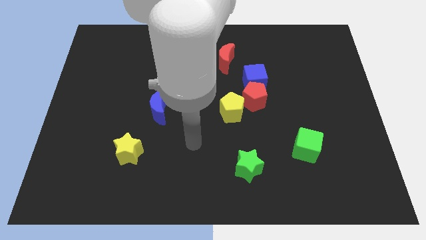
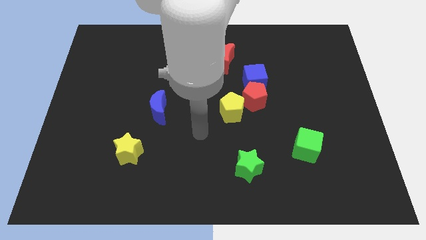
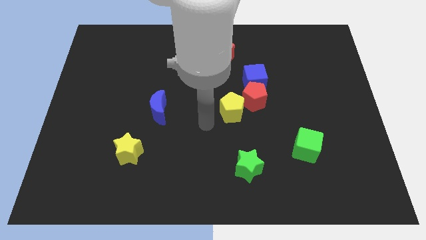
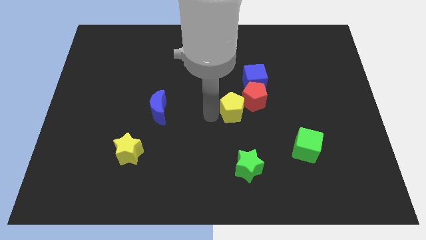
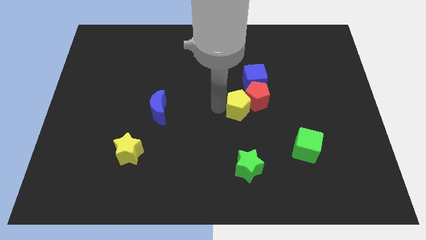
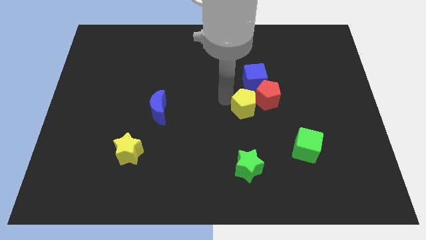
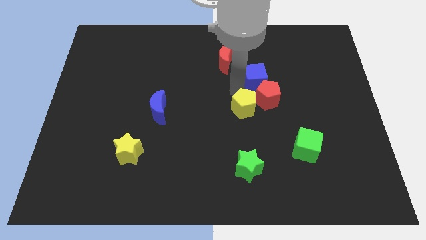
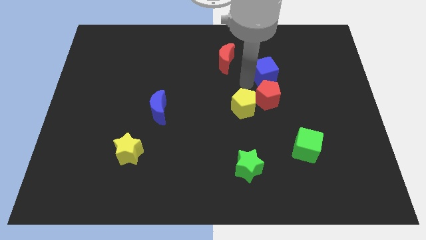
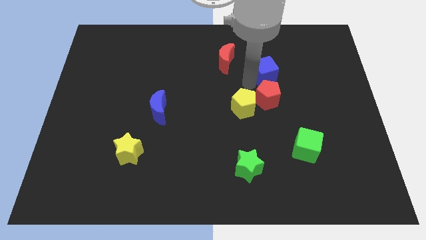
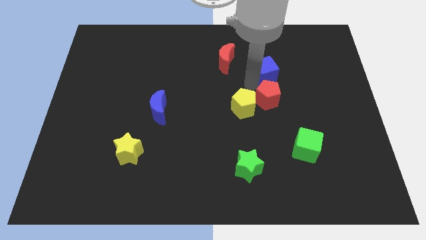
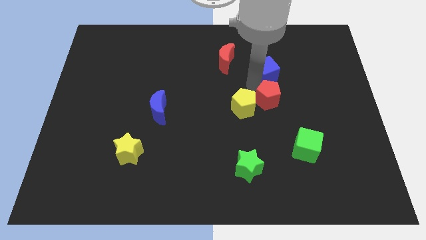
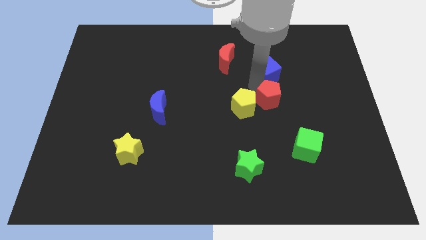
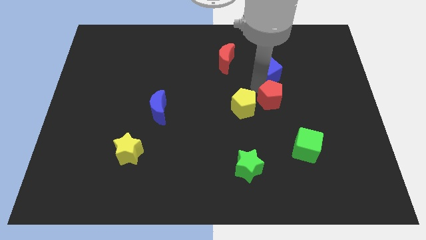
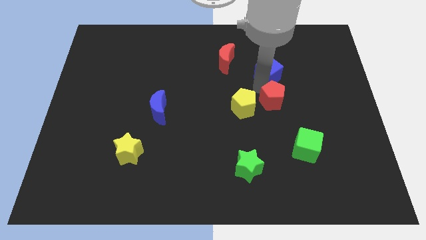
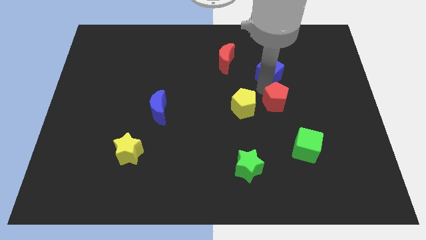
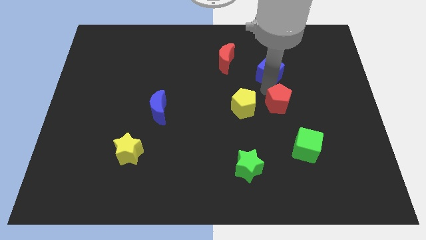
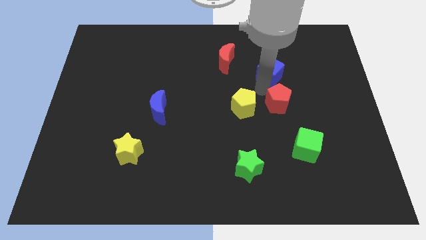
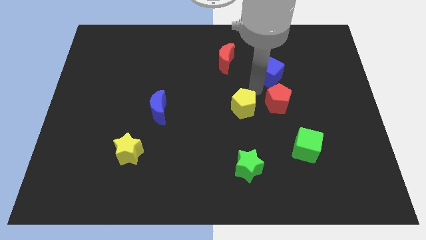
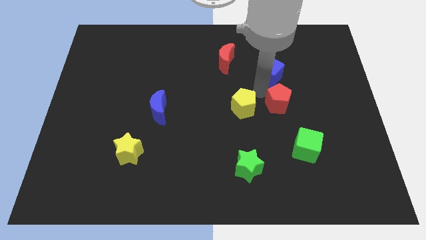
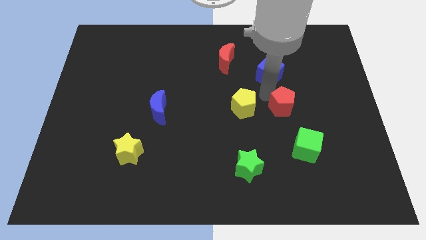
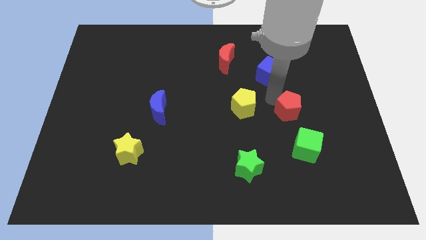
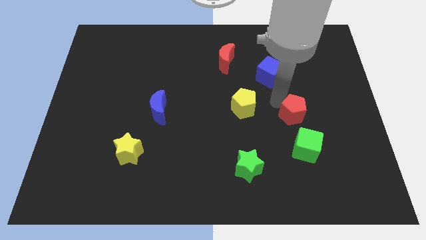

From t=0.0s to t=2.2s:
move the red pentagon away from the blue cube and yellow pentagon

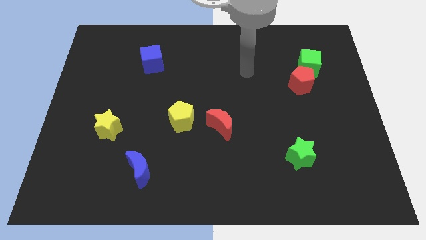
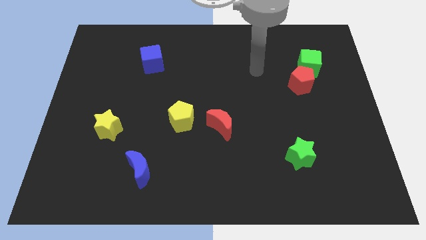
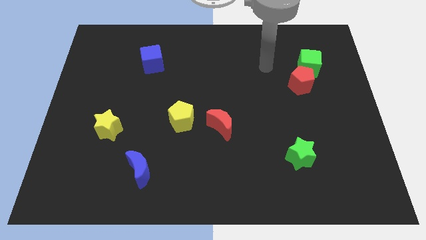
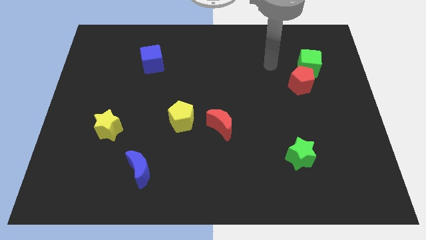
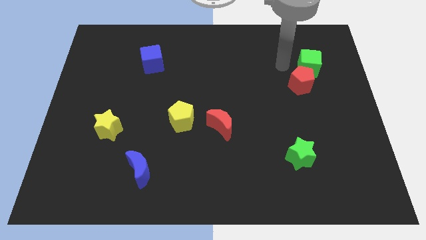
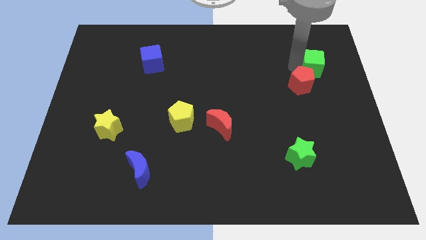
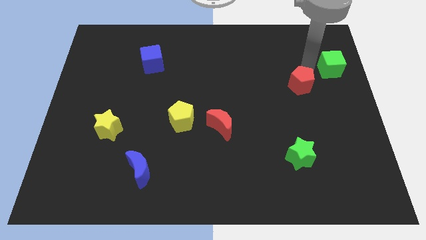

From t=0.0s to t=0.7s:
separate the red pentagon from the green cube

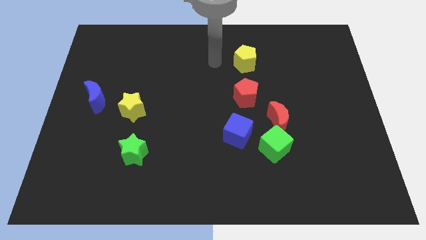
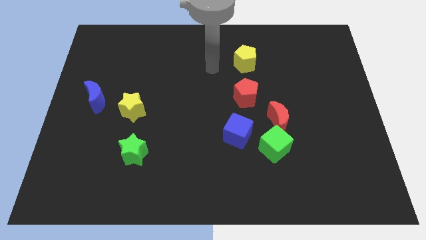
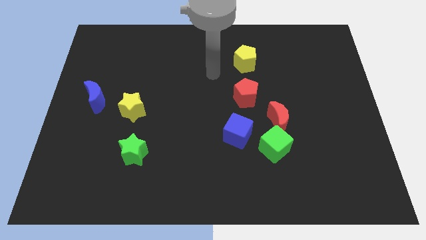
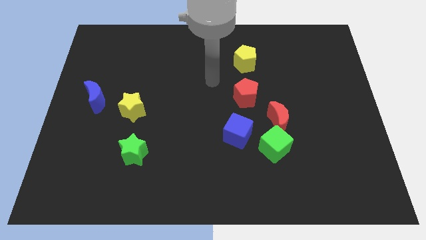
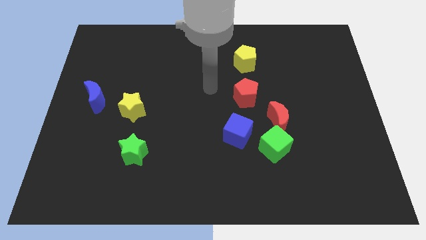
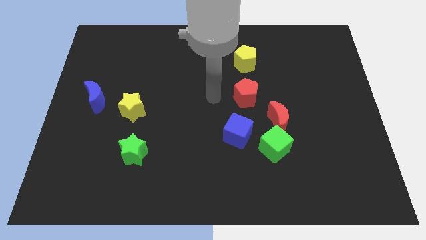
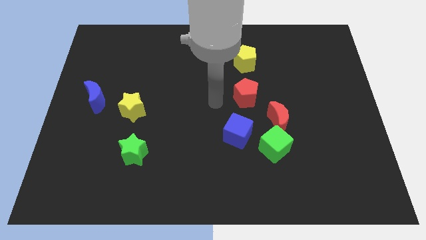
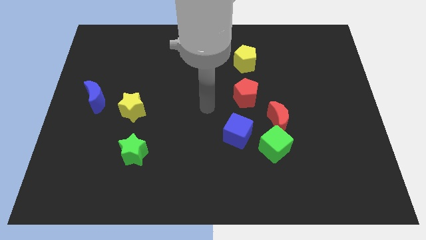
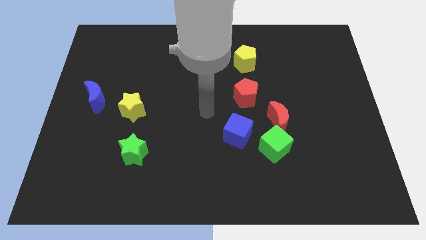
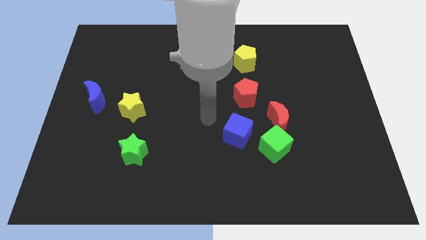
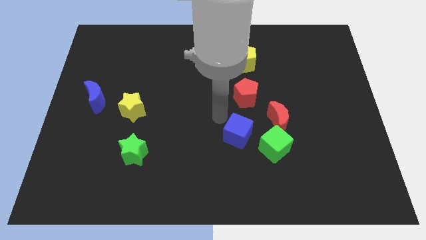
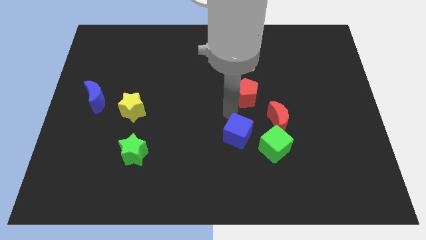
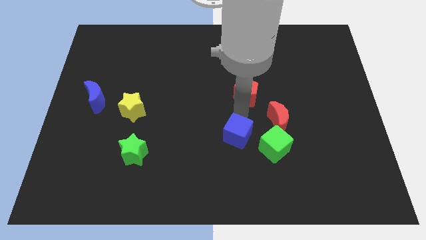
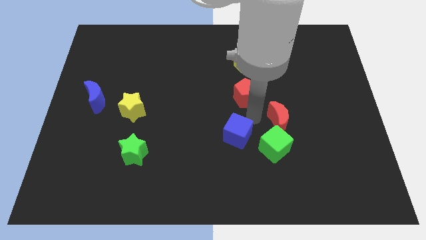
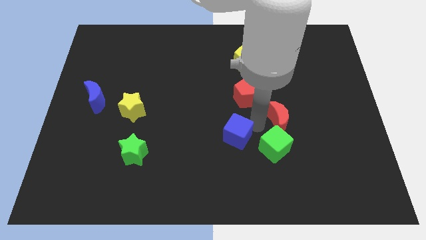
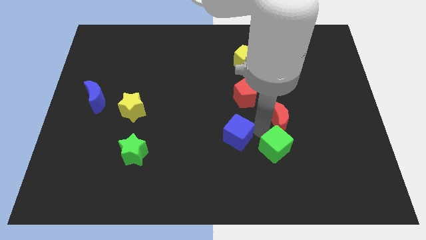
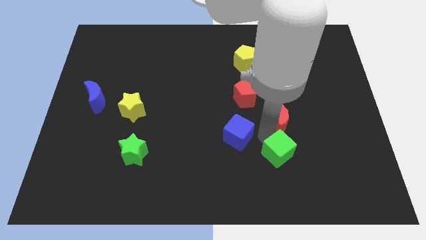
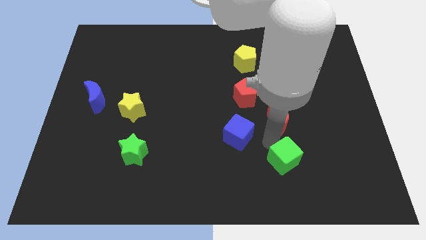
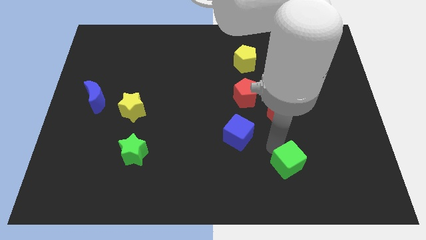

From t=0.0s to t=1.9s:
separate the green cube from the red moon and blue cube

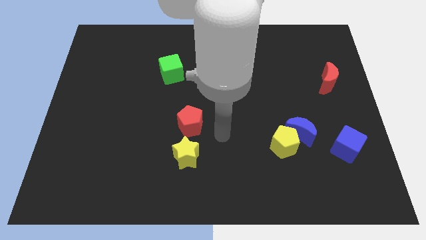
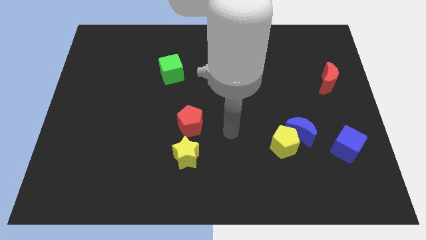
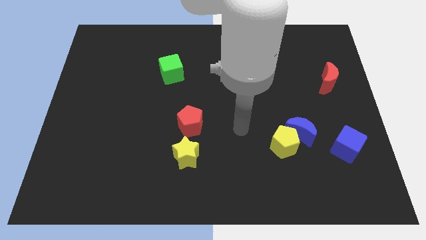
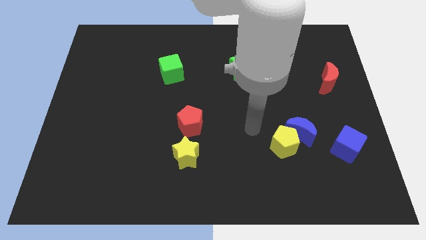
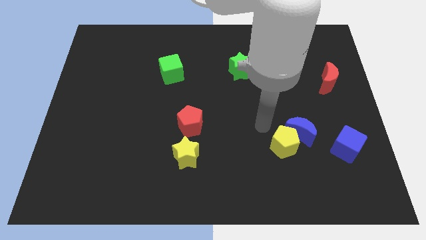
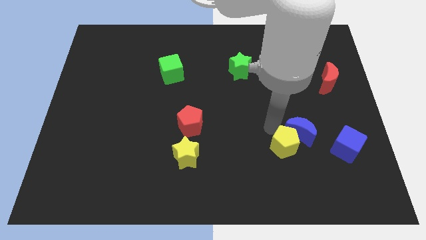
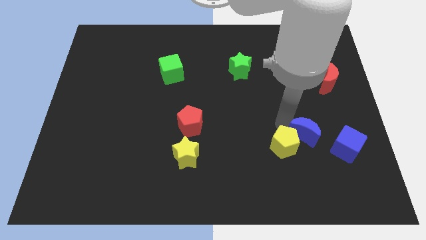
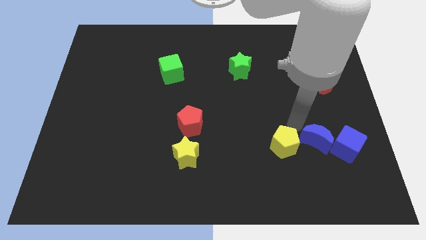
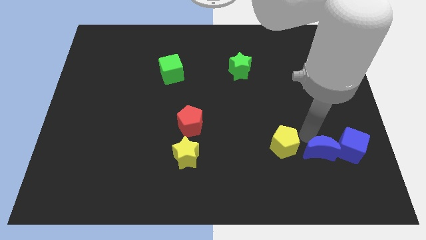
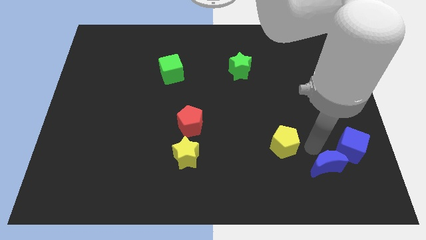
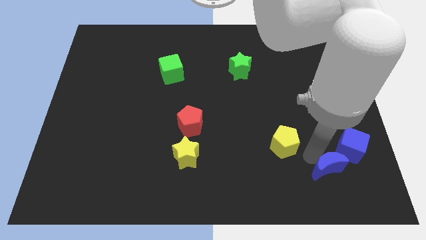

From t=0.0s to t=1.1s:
separate the yellow pentagon from the blue moon

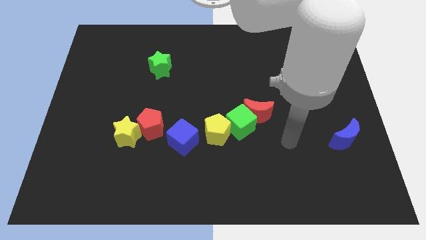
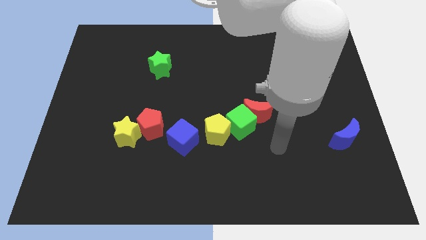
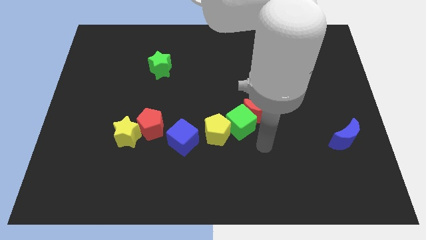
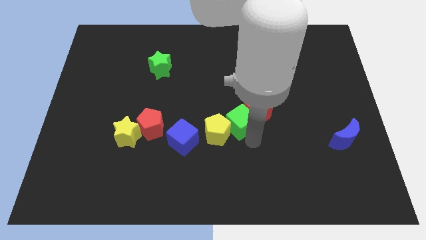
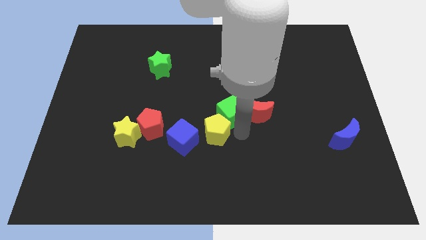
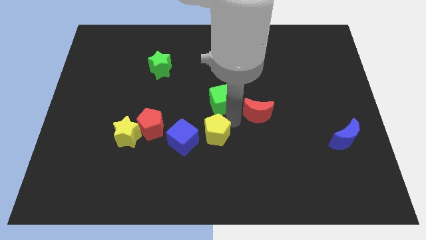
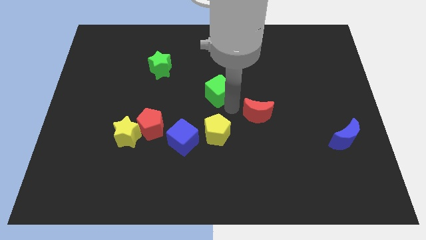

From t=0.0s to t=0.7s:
separate the red moon from the green cube

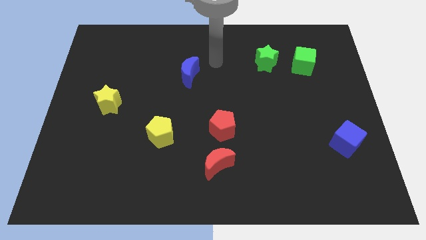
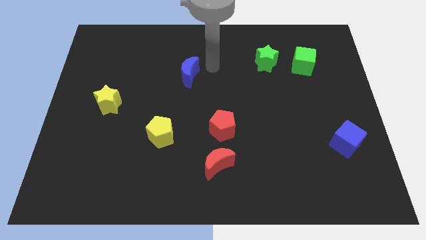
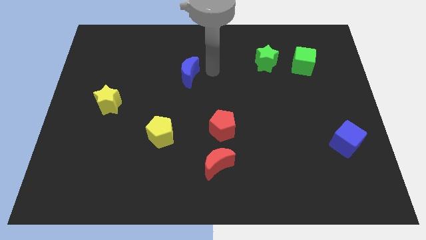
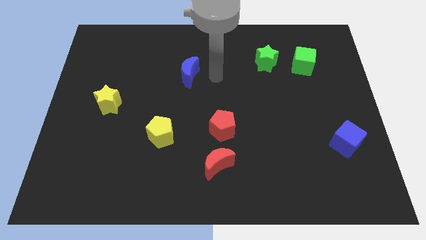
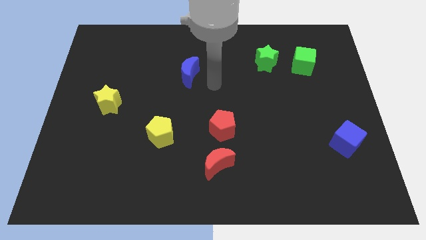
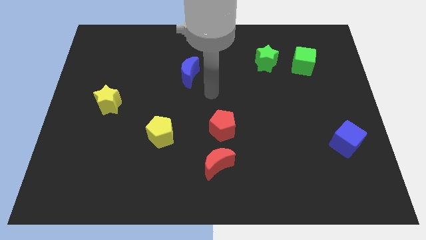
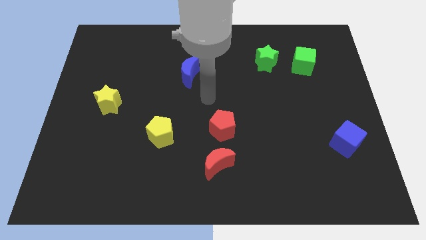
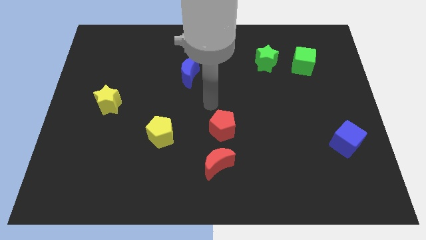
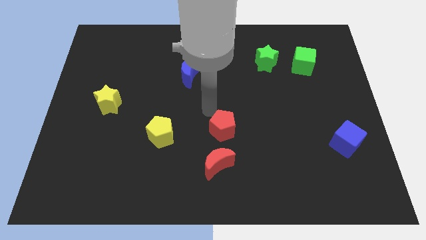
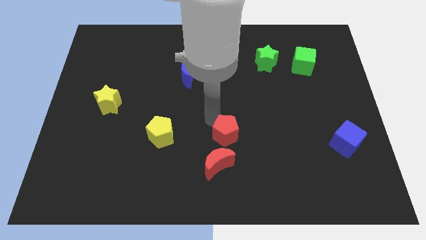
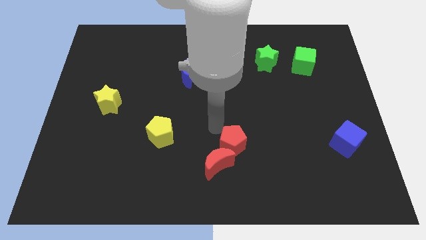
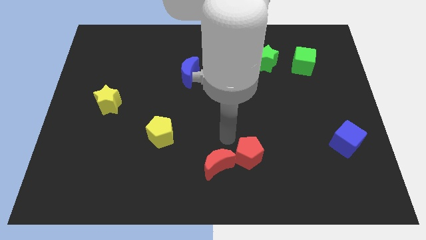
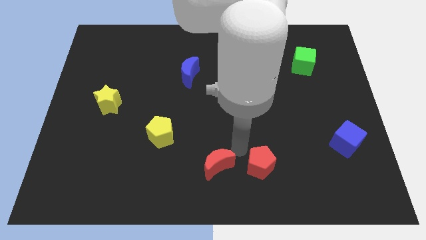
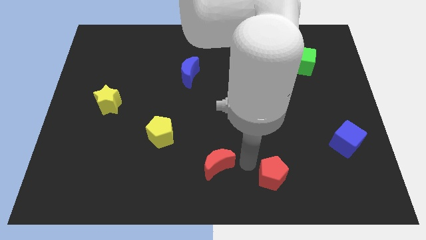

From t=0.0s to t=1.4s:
move the red moon away from the red pentagon

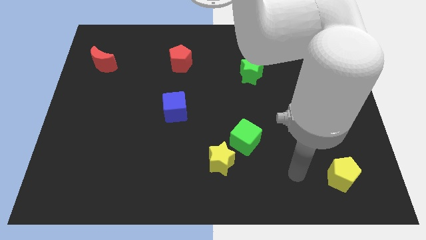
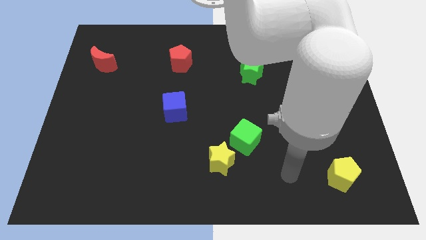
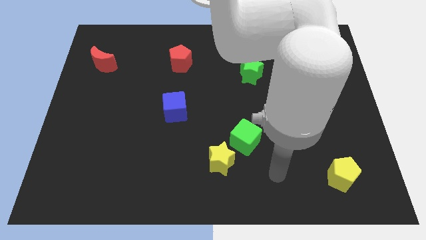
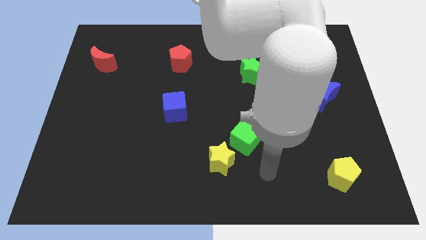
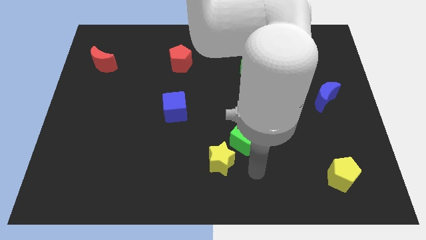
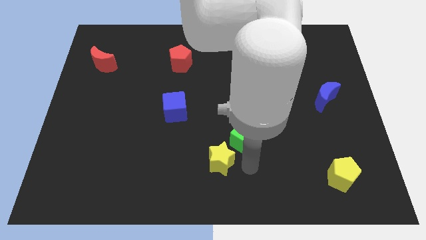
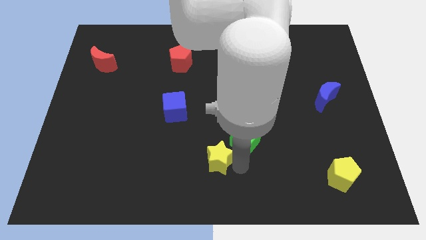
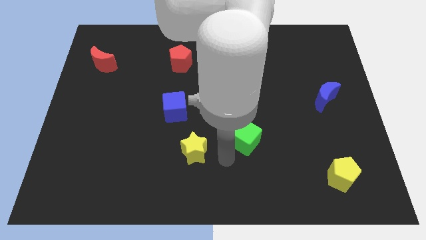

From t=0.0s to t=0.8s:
pull the green cube apart from the yellow star

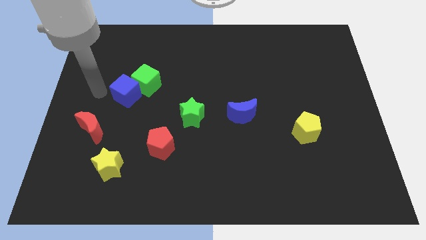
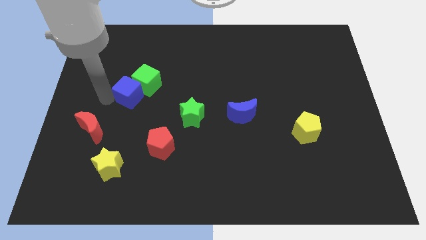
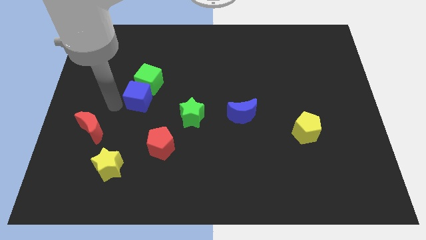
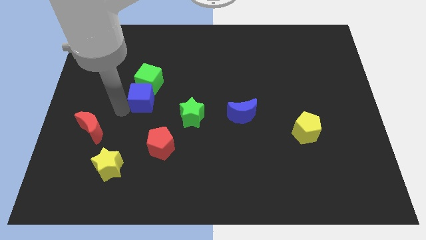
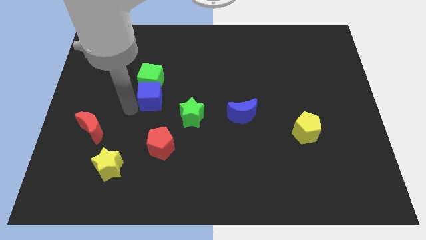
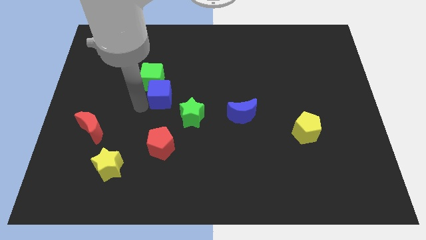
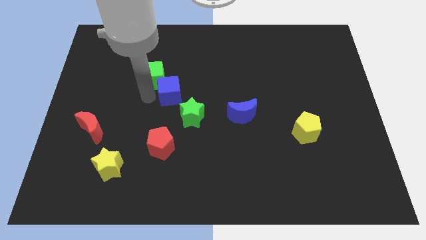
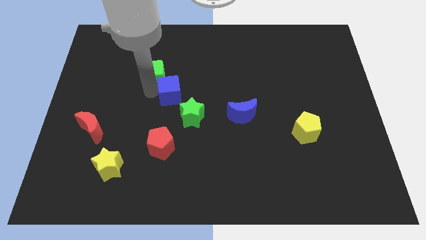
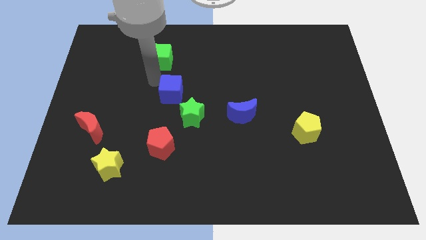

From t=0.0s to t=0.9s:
pull the blue cube apart from the green cube
